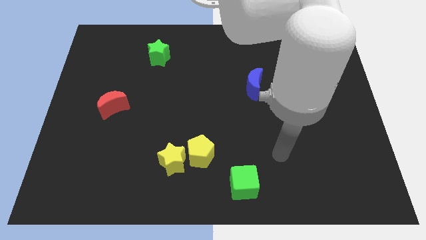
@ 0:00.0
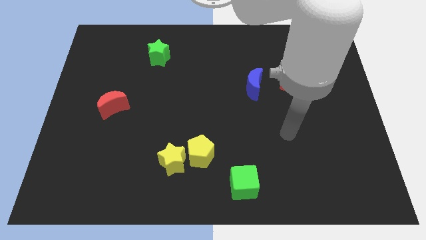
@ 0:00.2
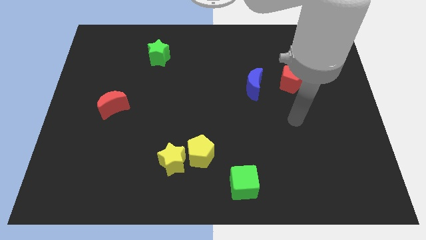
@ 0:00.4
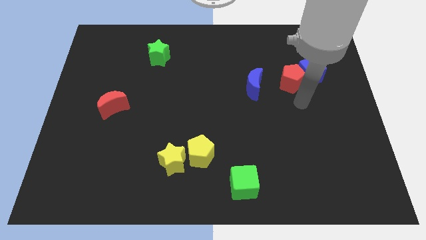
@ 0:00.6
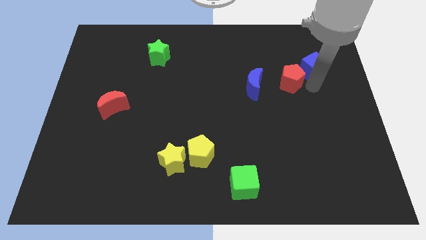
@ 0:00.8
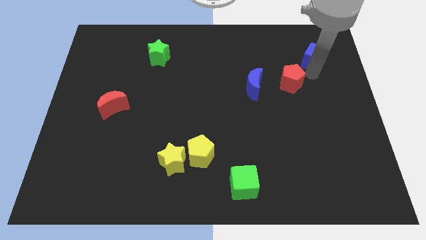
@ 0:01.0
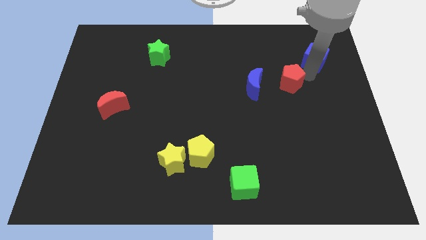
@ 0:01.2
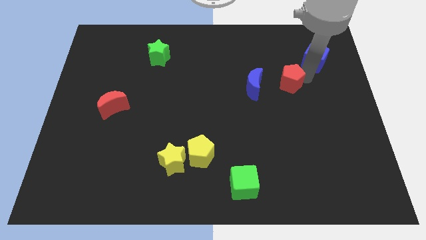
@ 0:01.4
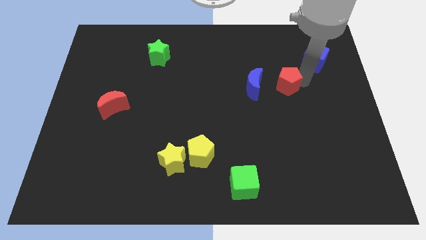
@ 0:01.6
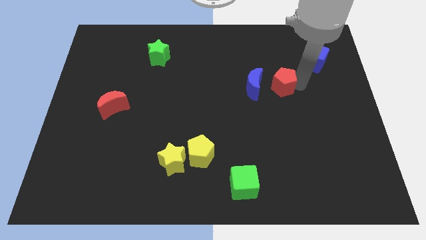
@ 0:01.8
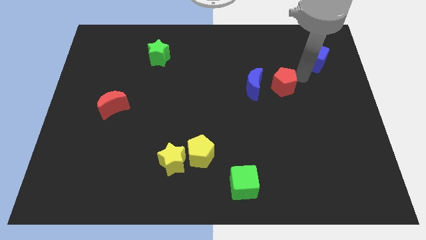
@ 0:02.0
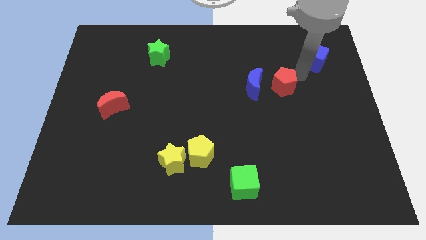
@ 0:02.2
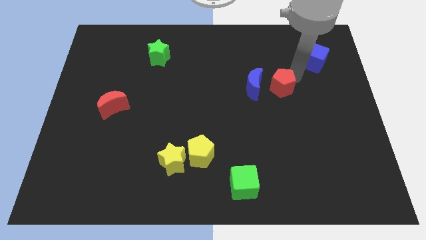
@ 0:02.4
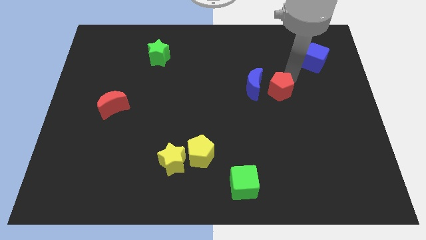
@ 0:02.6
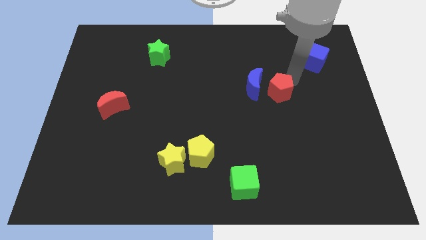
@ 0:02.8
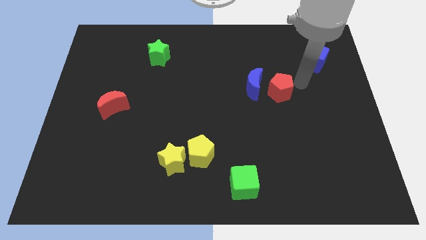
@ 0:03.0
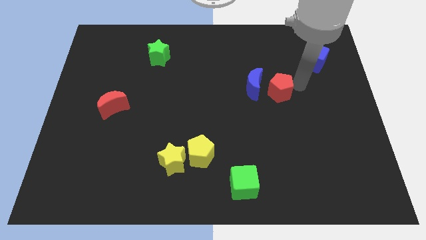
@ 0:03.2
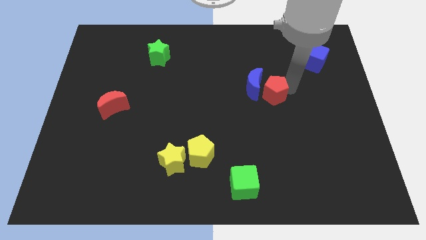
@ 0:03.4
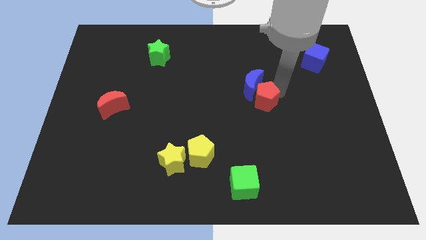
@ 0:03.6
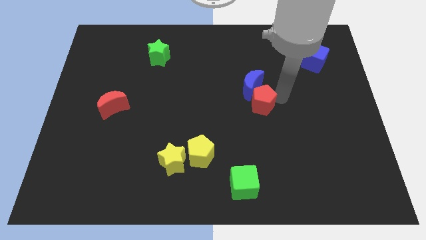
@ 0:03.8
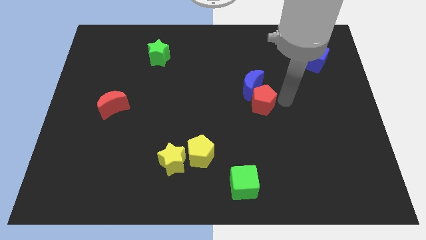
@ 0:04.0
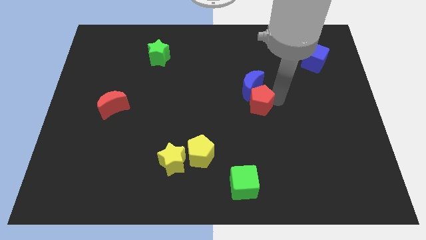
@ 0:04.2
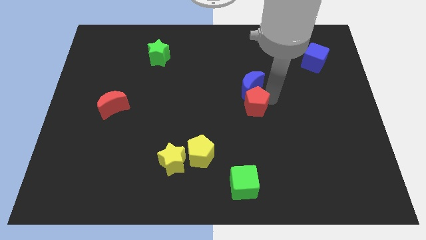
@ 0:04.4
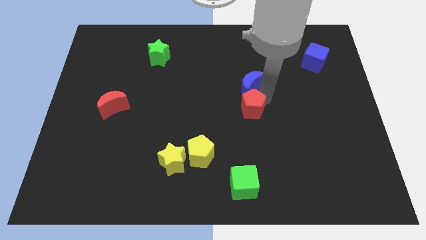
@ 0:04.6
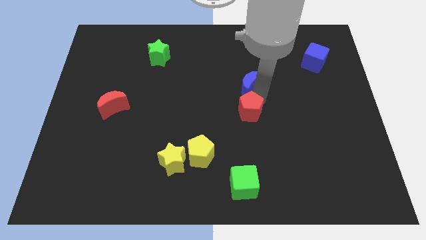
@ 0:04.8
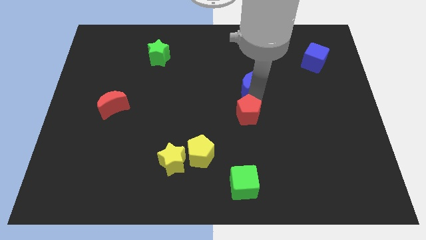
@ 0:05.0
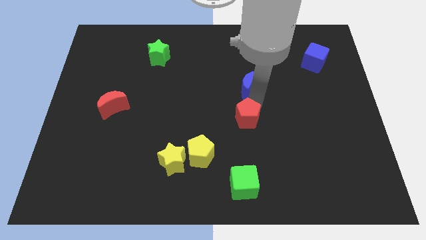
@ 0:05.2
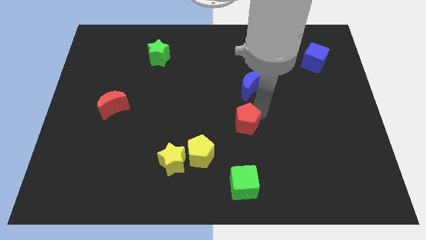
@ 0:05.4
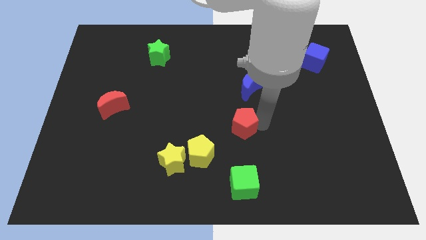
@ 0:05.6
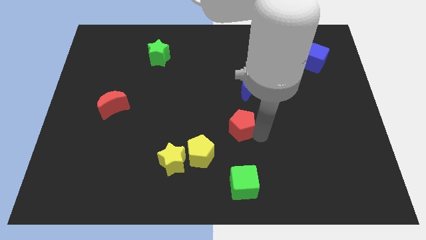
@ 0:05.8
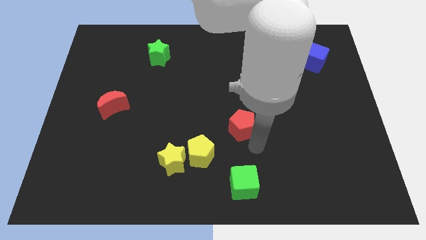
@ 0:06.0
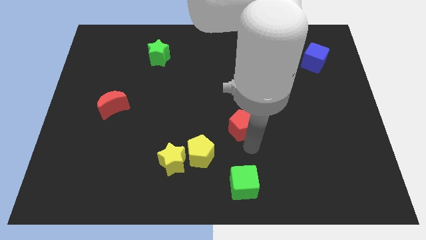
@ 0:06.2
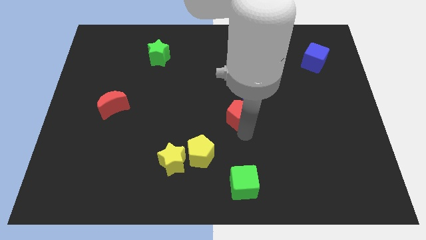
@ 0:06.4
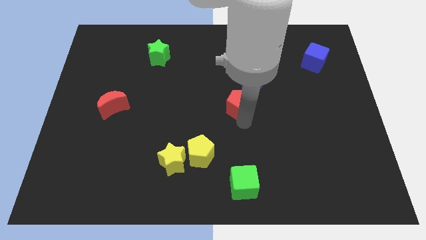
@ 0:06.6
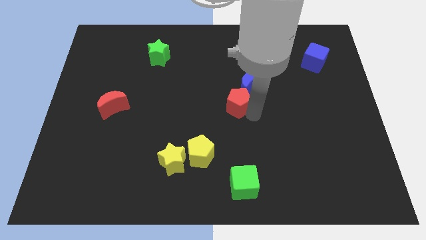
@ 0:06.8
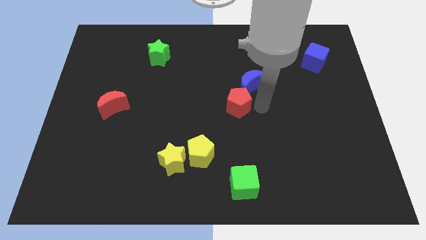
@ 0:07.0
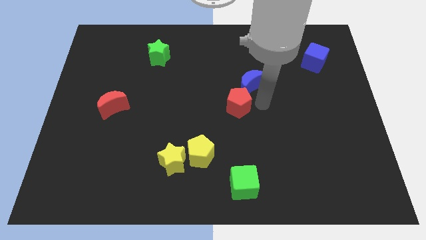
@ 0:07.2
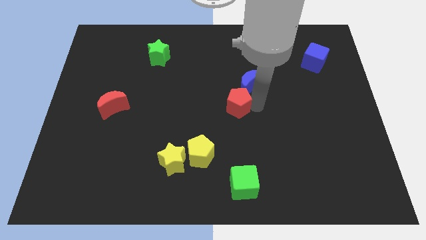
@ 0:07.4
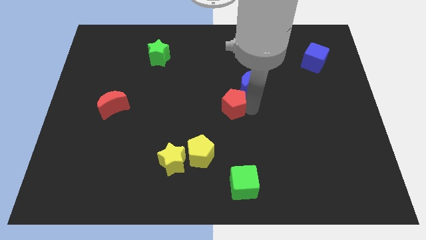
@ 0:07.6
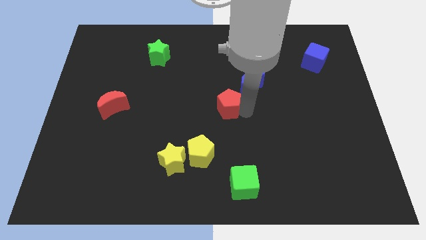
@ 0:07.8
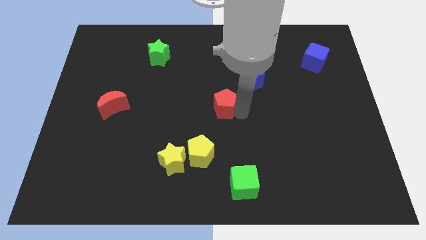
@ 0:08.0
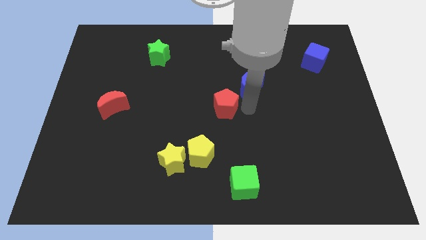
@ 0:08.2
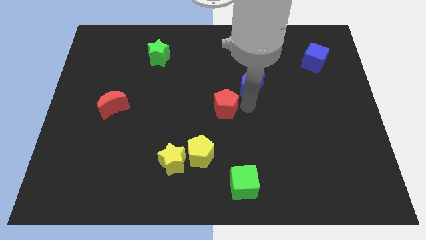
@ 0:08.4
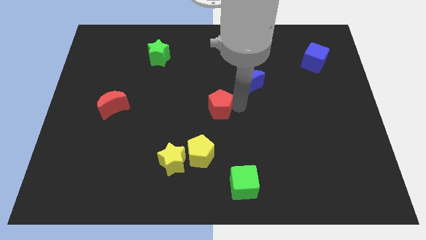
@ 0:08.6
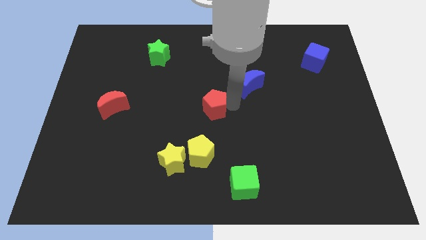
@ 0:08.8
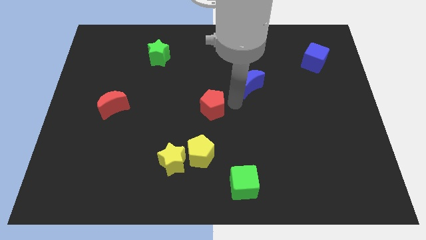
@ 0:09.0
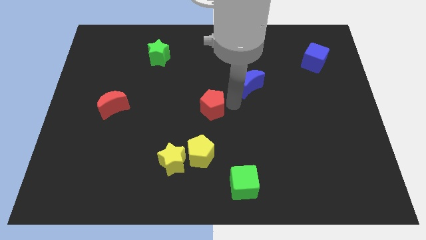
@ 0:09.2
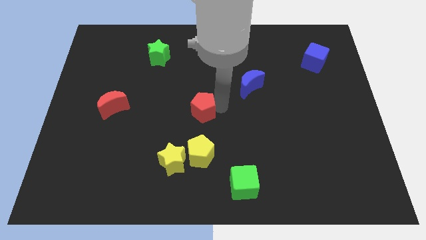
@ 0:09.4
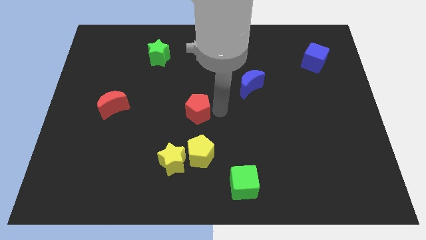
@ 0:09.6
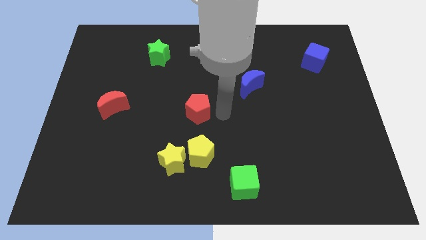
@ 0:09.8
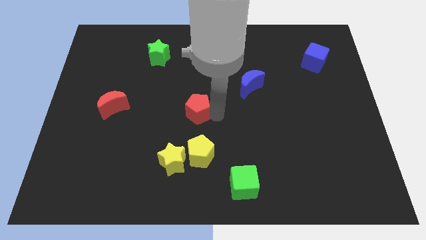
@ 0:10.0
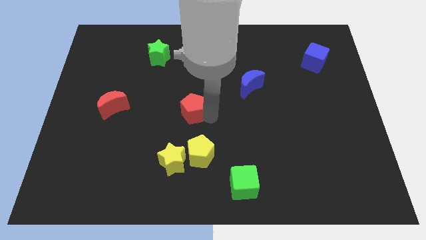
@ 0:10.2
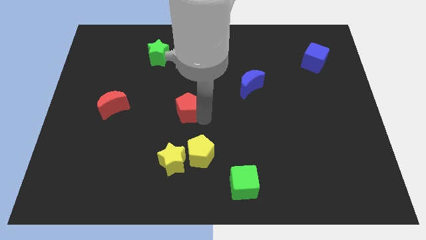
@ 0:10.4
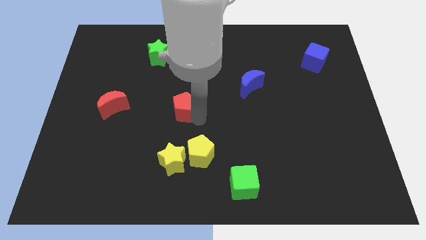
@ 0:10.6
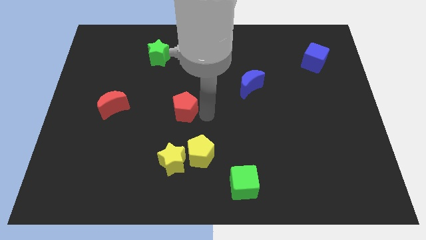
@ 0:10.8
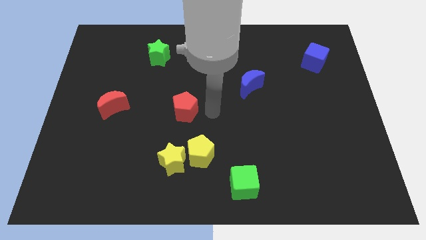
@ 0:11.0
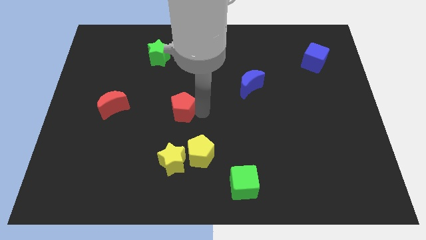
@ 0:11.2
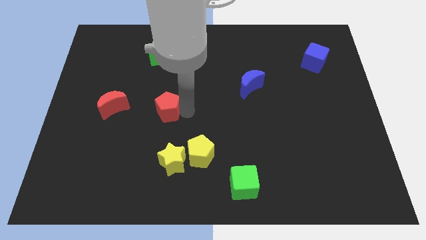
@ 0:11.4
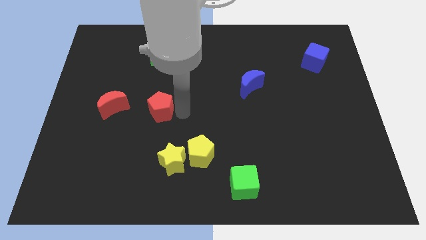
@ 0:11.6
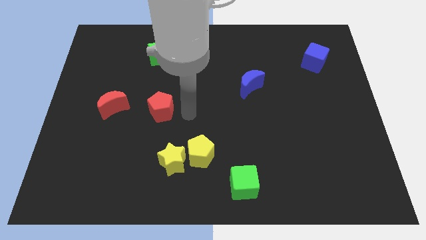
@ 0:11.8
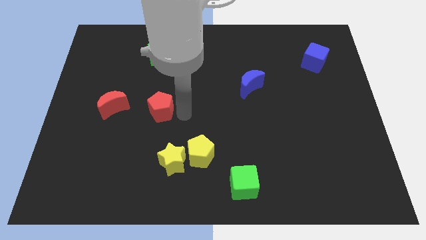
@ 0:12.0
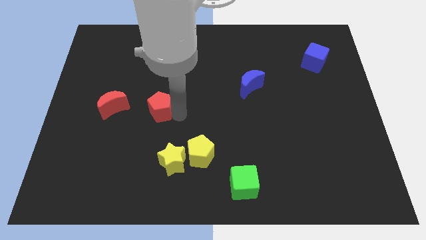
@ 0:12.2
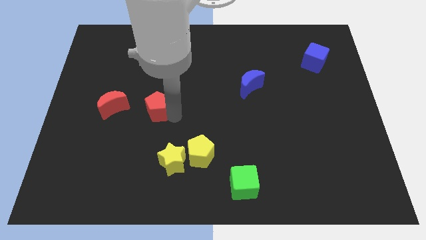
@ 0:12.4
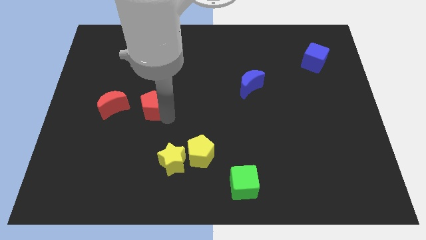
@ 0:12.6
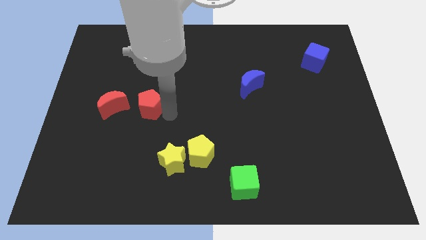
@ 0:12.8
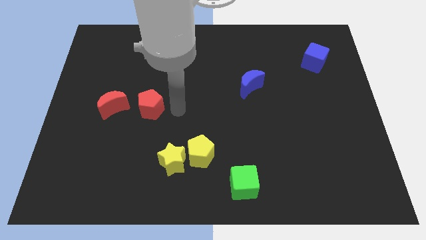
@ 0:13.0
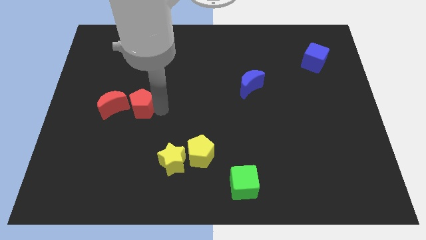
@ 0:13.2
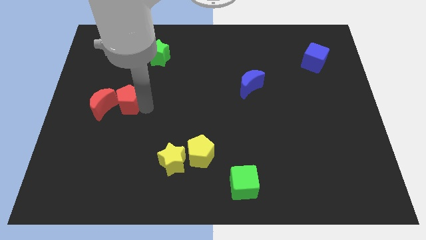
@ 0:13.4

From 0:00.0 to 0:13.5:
slide the red pentagon next to the red moon

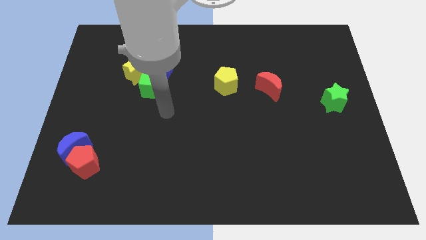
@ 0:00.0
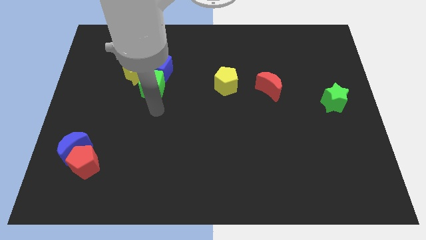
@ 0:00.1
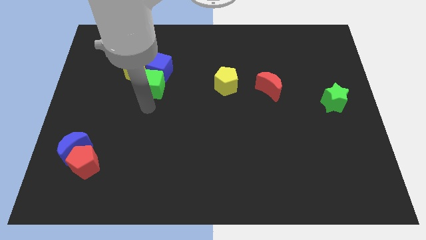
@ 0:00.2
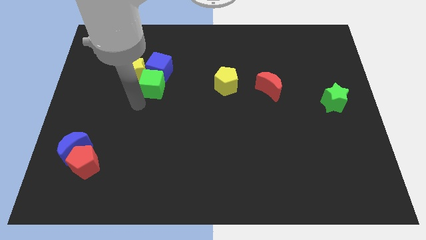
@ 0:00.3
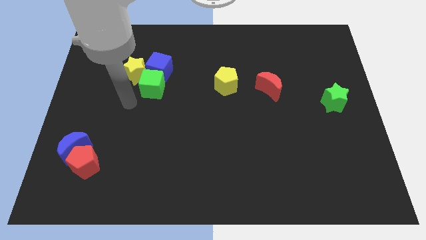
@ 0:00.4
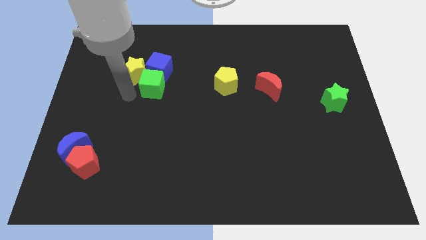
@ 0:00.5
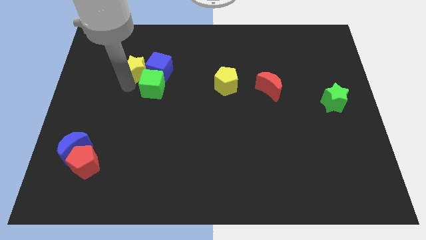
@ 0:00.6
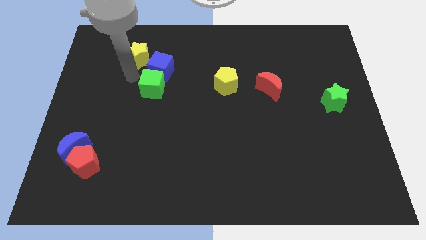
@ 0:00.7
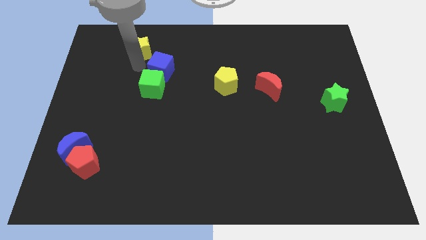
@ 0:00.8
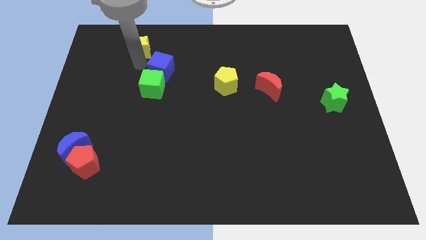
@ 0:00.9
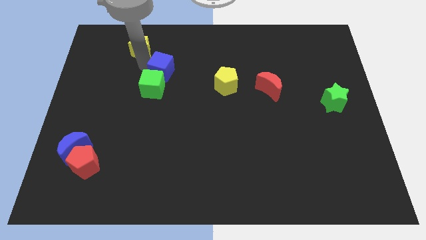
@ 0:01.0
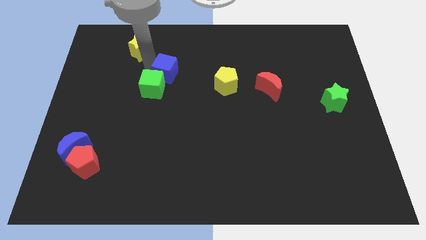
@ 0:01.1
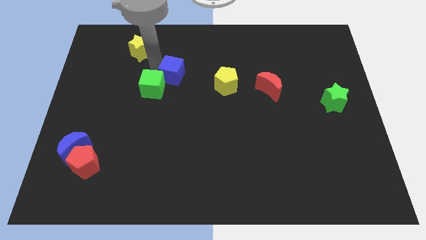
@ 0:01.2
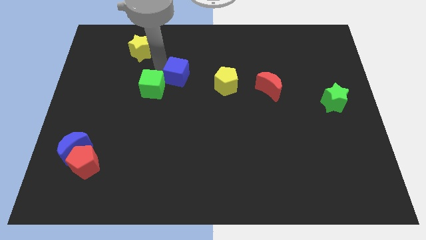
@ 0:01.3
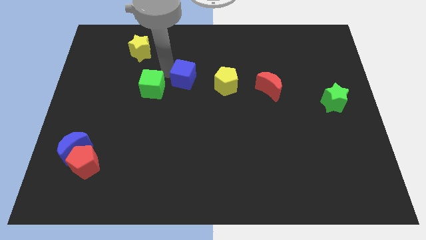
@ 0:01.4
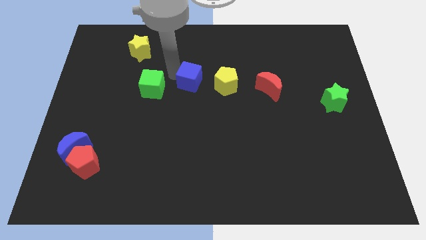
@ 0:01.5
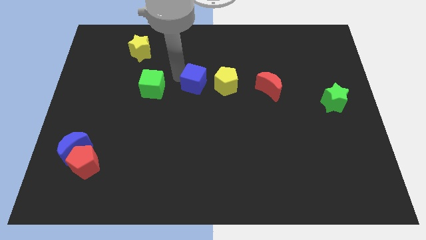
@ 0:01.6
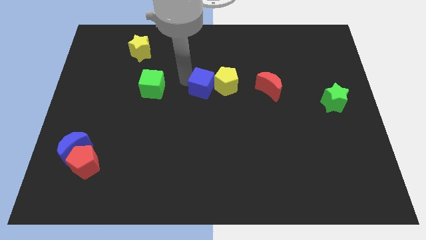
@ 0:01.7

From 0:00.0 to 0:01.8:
put the blue cube close to the yellow pentagon
